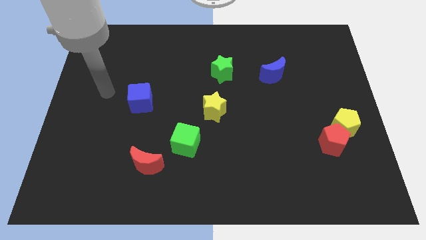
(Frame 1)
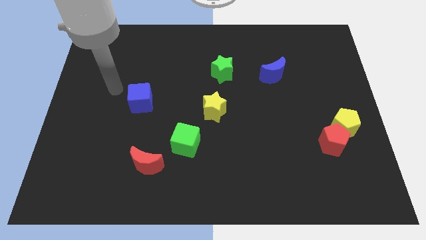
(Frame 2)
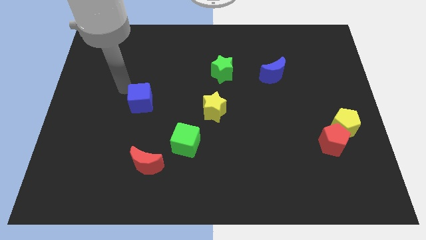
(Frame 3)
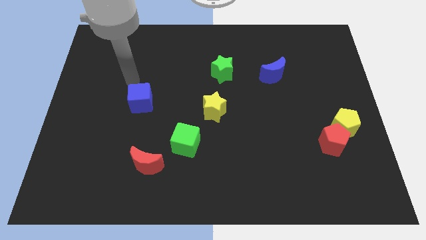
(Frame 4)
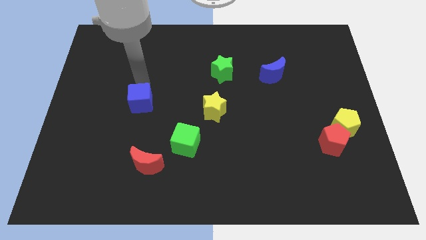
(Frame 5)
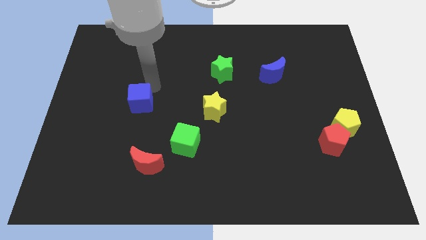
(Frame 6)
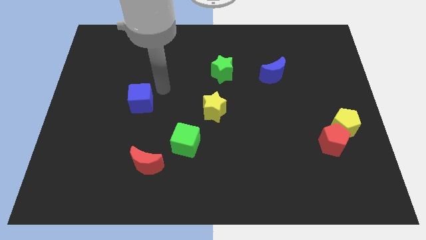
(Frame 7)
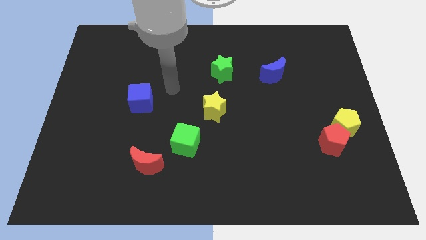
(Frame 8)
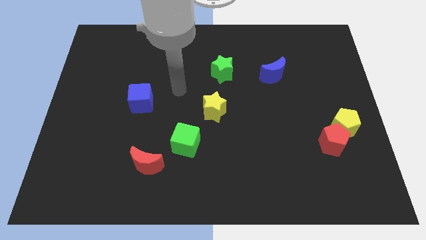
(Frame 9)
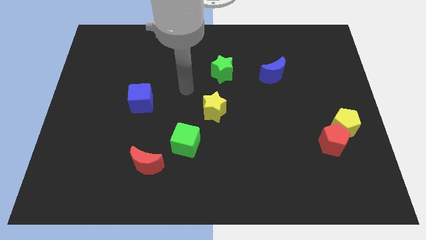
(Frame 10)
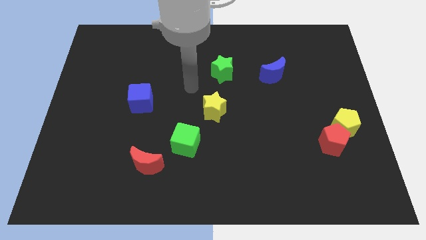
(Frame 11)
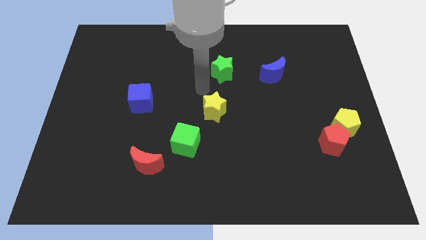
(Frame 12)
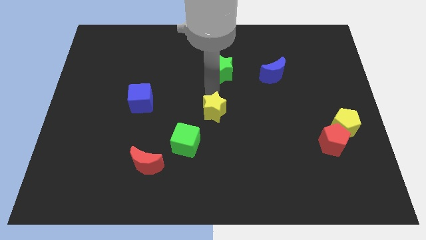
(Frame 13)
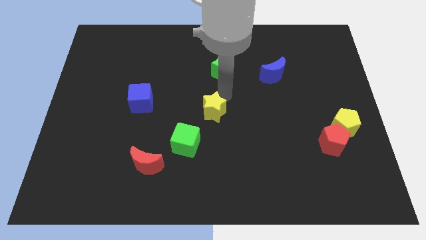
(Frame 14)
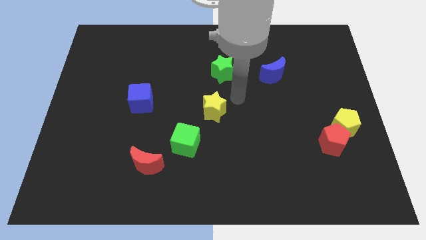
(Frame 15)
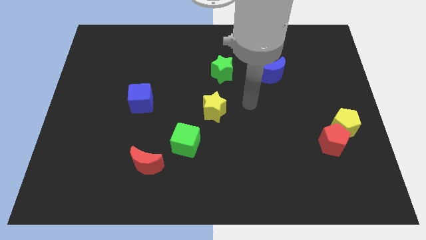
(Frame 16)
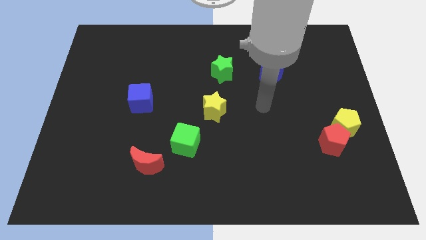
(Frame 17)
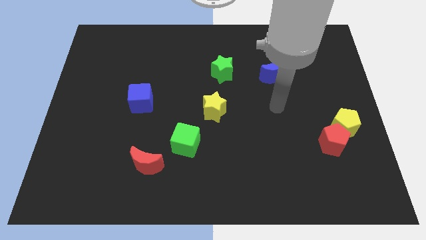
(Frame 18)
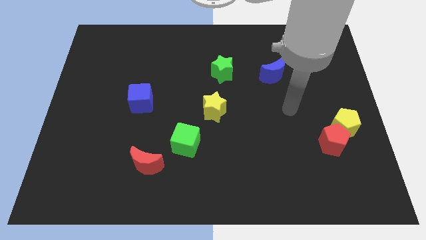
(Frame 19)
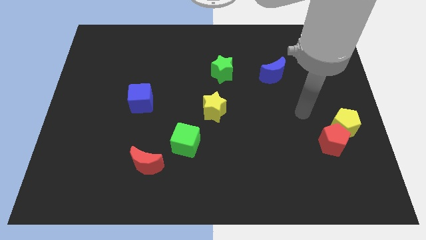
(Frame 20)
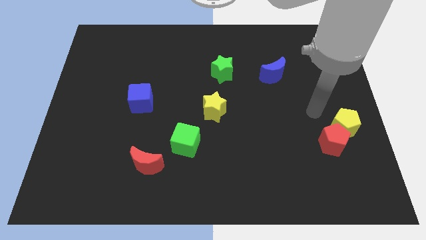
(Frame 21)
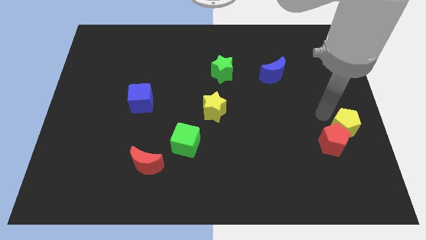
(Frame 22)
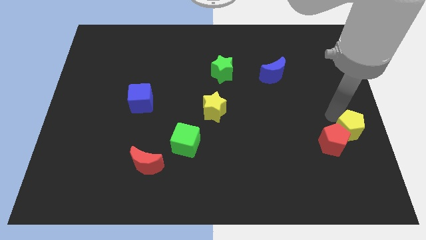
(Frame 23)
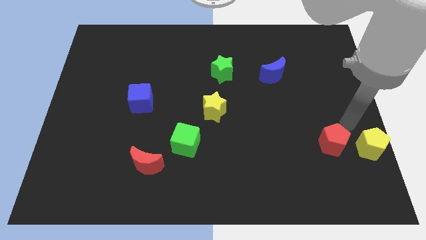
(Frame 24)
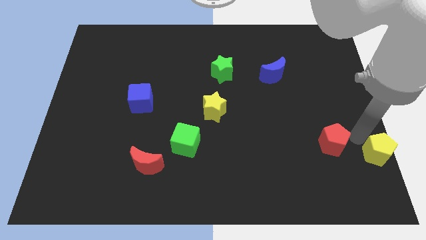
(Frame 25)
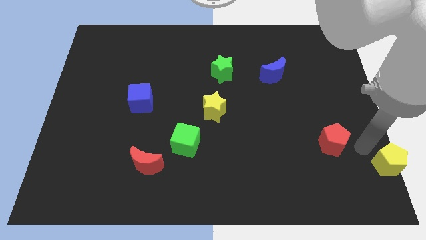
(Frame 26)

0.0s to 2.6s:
move the red pentagon away from the yellow pentagon

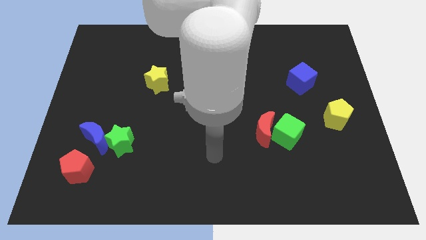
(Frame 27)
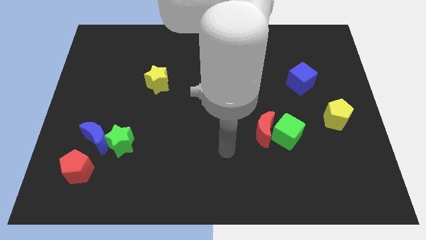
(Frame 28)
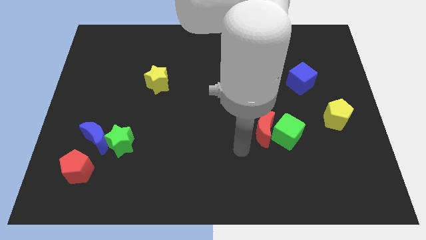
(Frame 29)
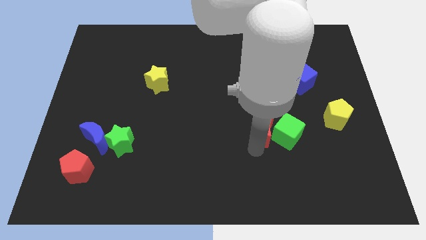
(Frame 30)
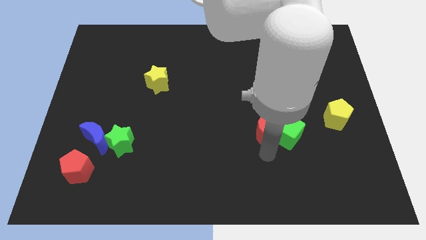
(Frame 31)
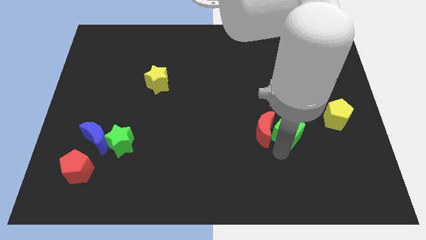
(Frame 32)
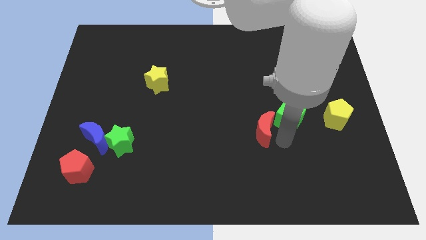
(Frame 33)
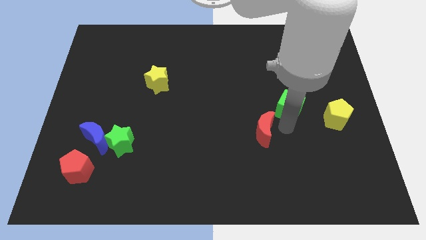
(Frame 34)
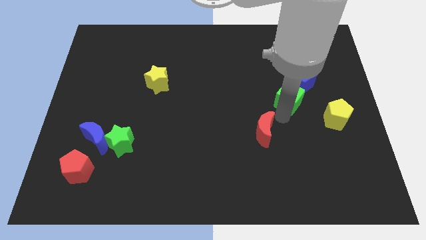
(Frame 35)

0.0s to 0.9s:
move the red moon away from the green cube

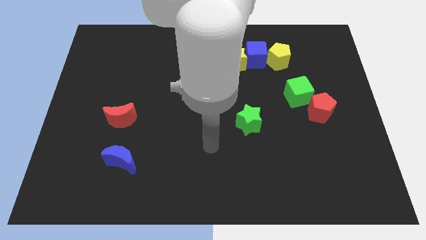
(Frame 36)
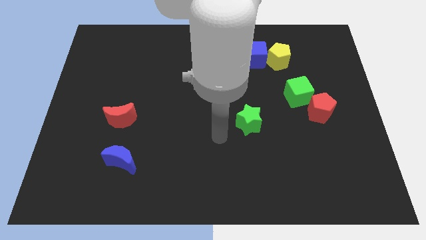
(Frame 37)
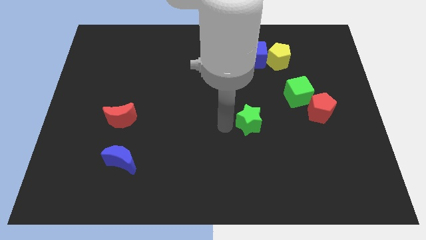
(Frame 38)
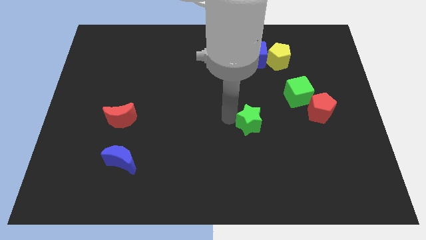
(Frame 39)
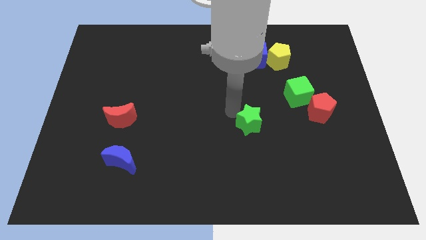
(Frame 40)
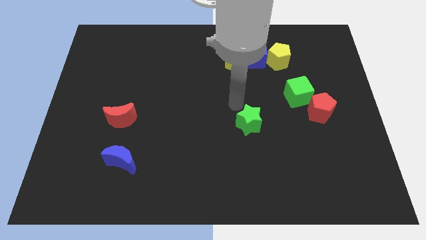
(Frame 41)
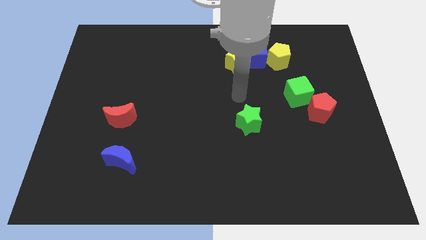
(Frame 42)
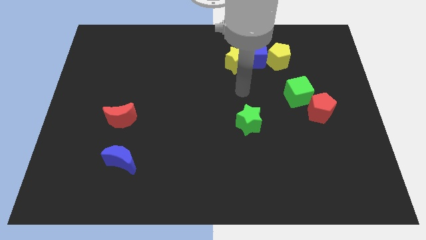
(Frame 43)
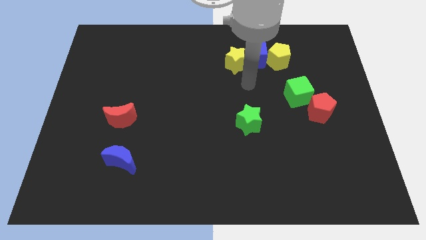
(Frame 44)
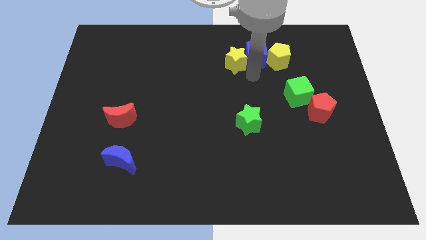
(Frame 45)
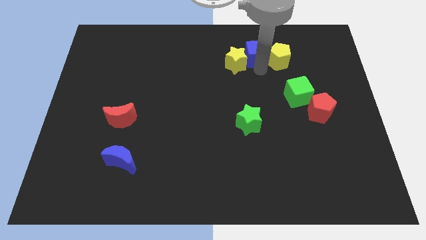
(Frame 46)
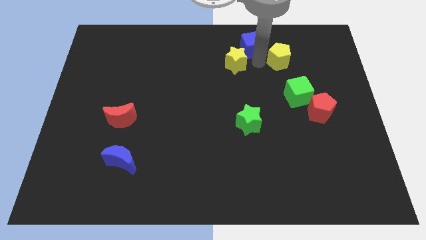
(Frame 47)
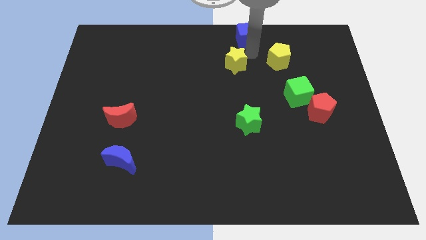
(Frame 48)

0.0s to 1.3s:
separate the yellow star from the blue cube

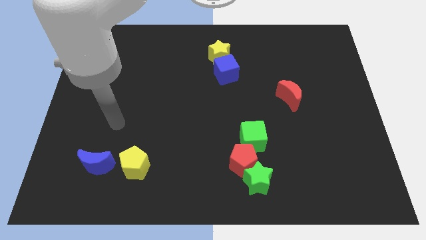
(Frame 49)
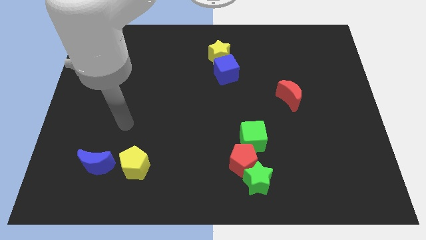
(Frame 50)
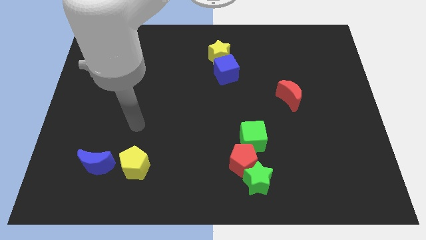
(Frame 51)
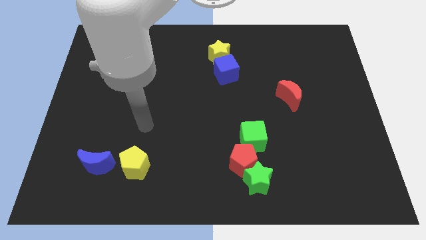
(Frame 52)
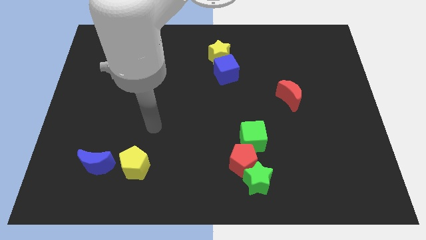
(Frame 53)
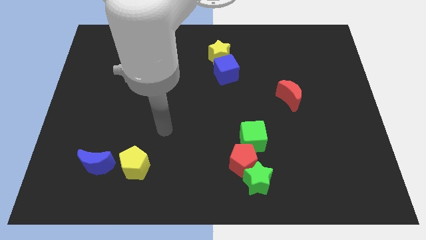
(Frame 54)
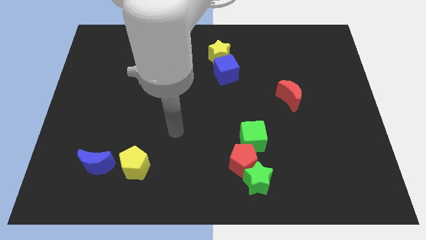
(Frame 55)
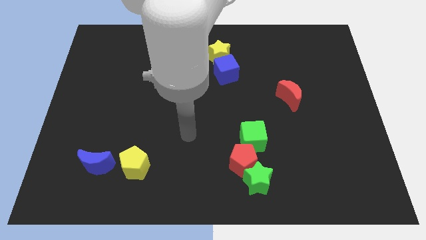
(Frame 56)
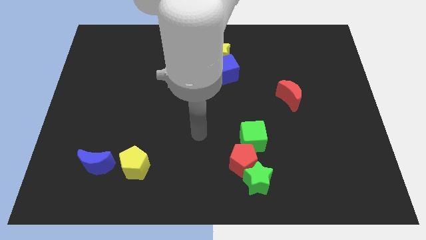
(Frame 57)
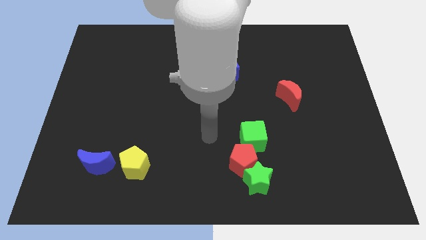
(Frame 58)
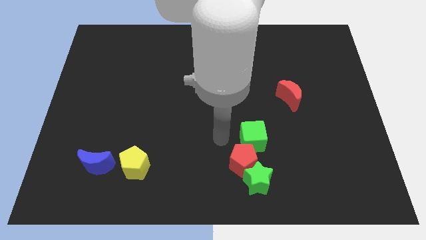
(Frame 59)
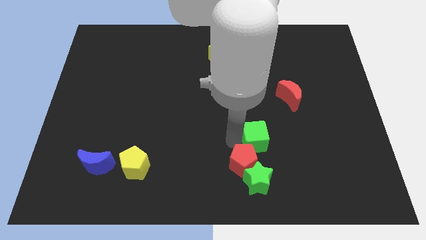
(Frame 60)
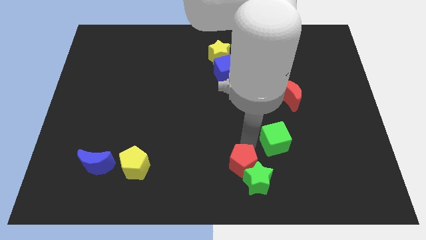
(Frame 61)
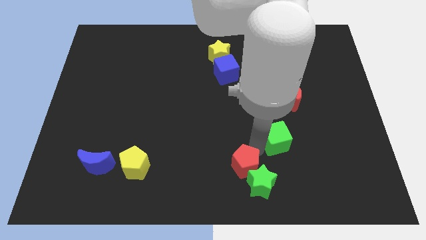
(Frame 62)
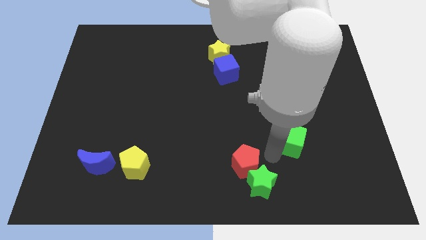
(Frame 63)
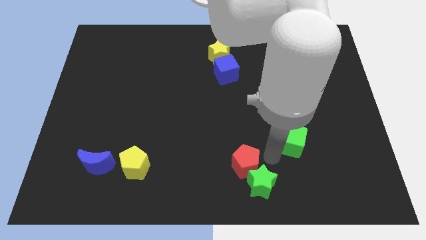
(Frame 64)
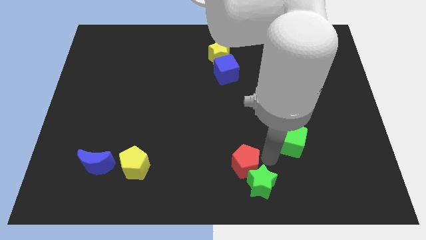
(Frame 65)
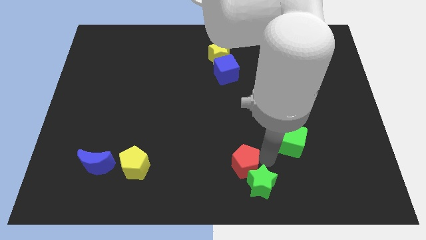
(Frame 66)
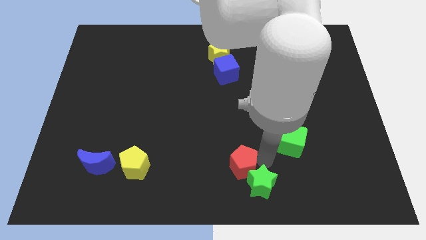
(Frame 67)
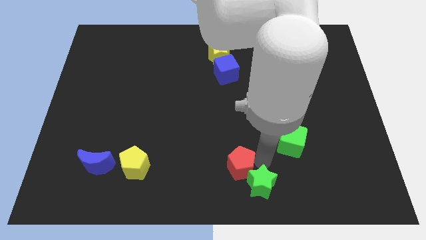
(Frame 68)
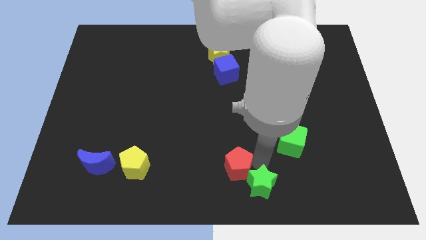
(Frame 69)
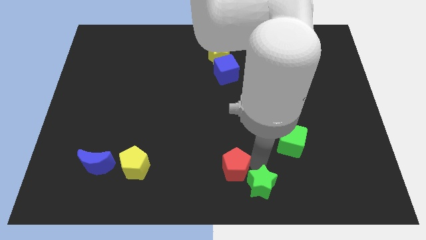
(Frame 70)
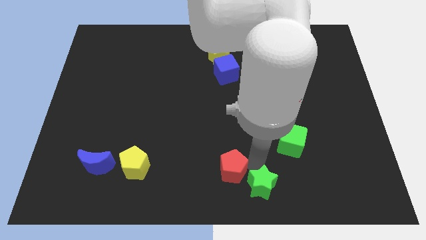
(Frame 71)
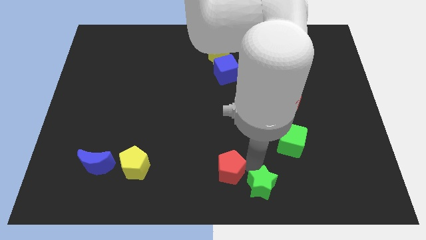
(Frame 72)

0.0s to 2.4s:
move the red pentagon away from the green star and green cube

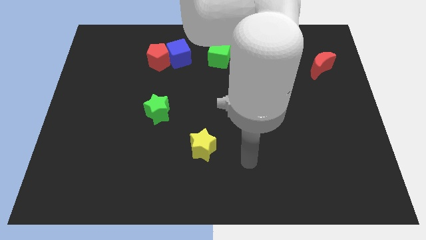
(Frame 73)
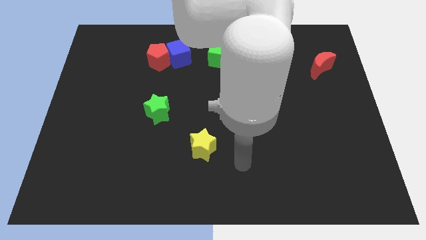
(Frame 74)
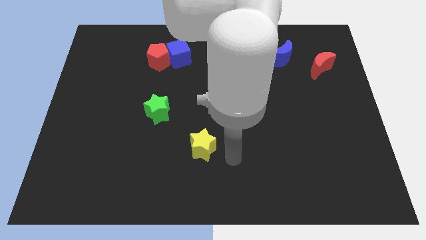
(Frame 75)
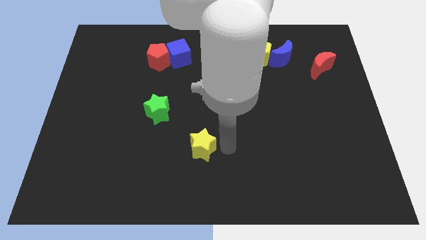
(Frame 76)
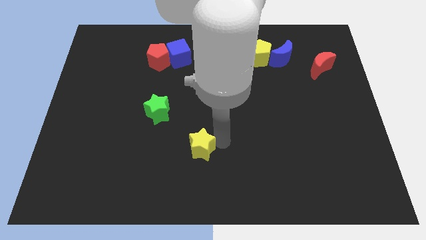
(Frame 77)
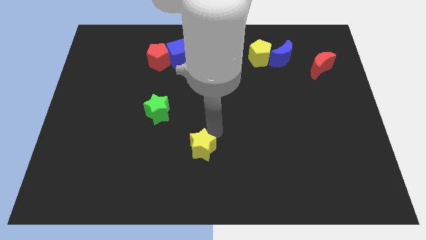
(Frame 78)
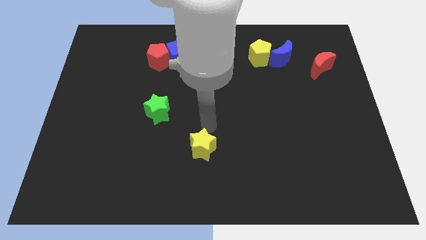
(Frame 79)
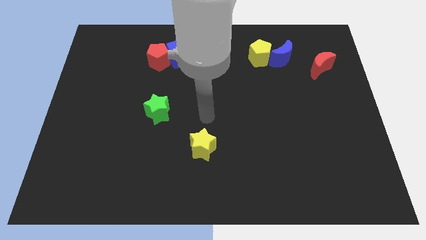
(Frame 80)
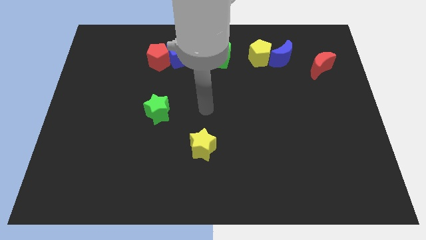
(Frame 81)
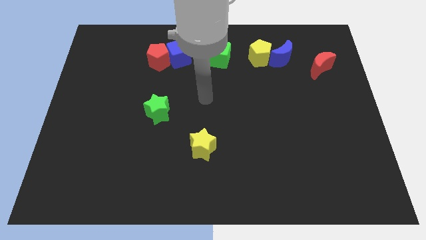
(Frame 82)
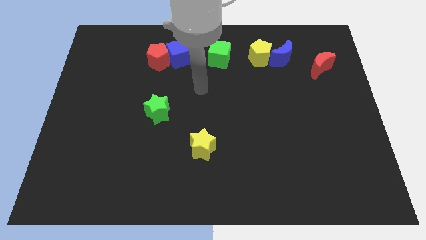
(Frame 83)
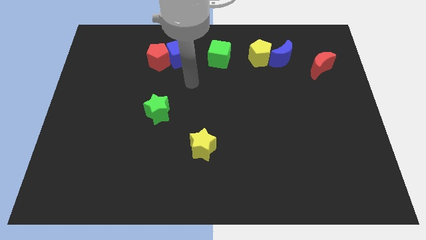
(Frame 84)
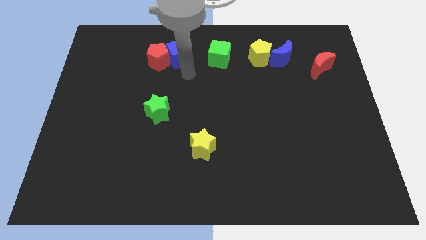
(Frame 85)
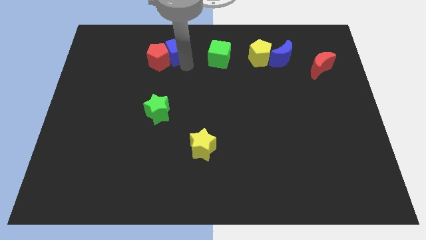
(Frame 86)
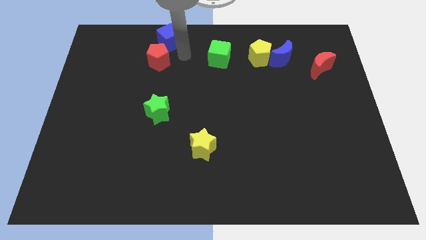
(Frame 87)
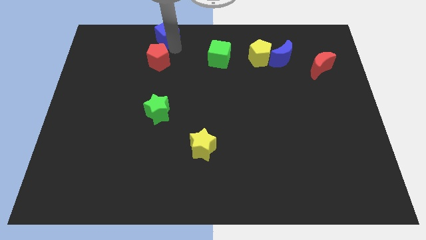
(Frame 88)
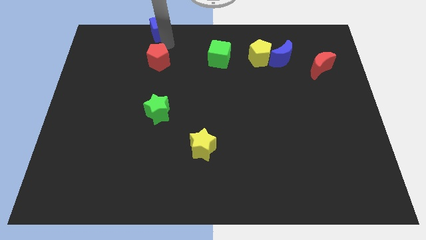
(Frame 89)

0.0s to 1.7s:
pull the red pentagon apart from the blue cube

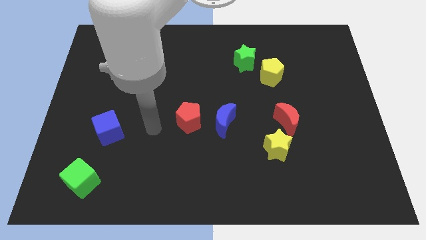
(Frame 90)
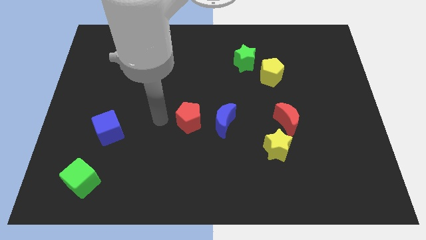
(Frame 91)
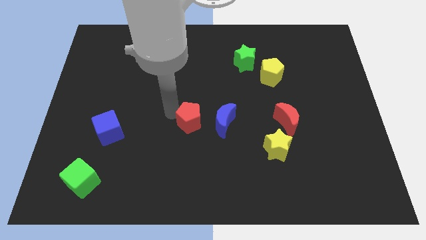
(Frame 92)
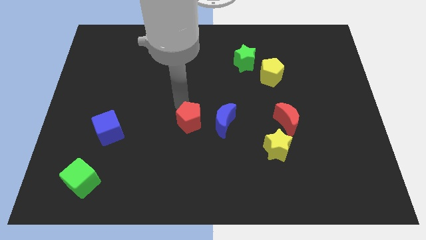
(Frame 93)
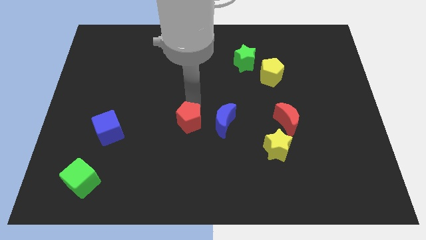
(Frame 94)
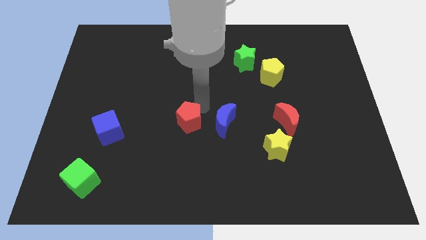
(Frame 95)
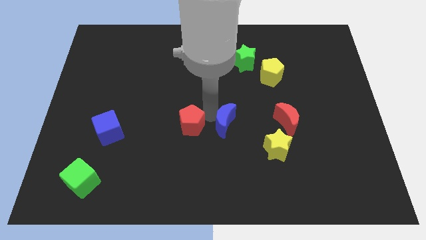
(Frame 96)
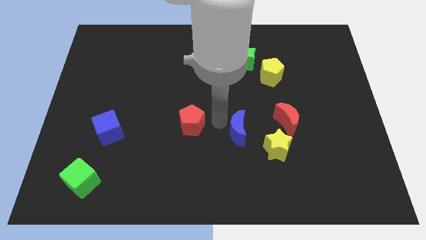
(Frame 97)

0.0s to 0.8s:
move the red pentagon away from the blue moon
